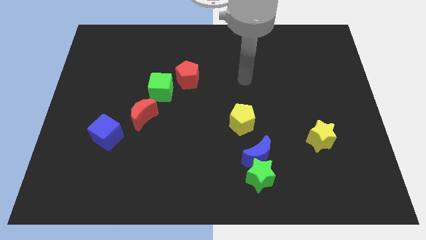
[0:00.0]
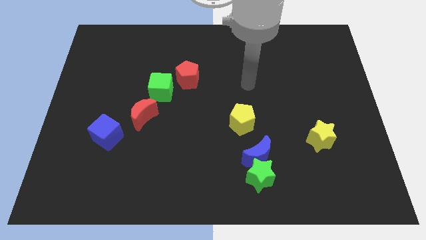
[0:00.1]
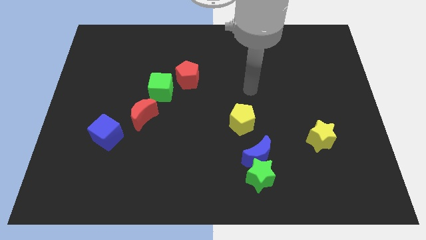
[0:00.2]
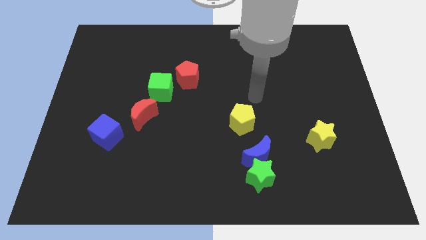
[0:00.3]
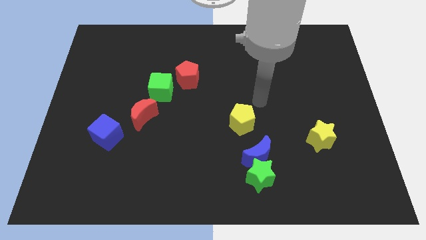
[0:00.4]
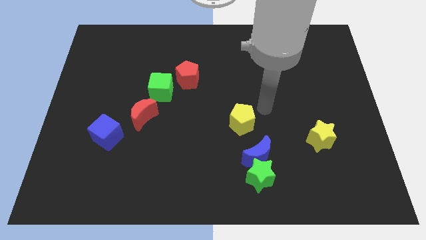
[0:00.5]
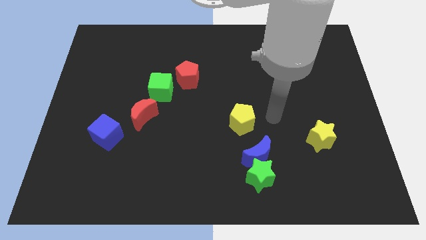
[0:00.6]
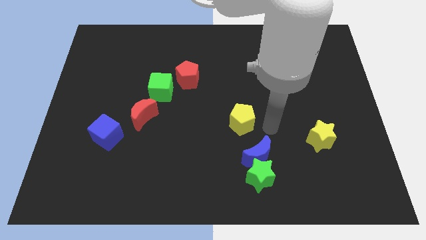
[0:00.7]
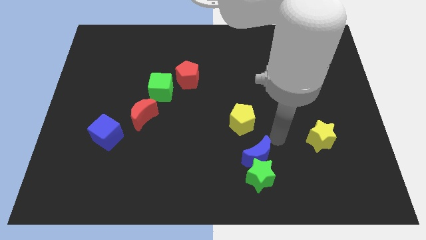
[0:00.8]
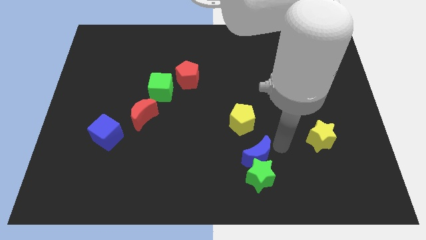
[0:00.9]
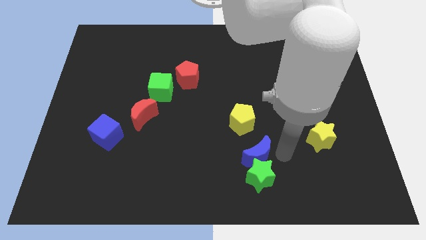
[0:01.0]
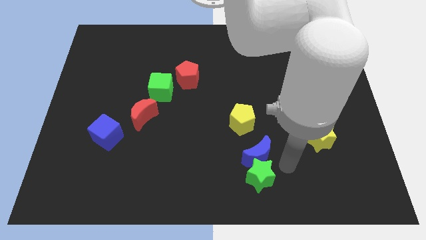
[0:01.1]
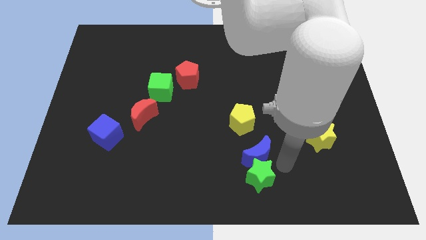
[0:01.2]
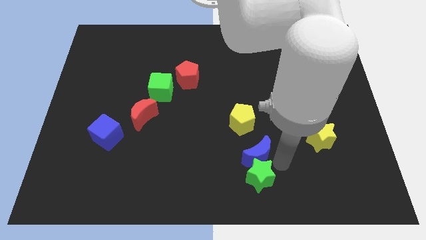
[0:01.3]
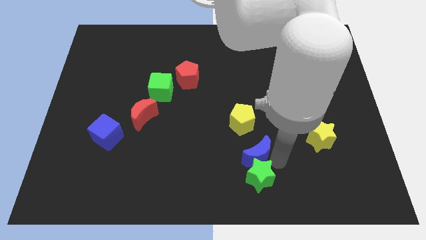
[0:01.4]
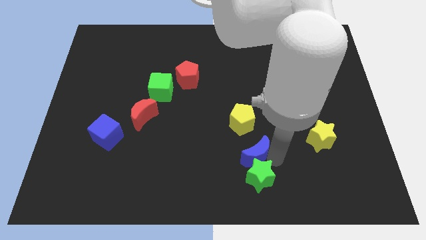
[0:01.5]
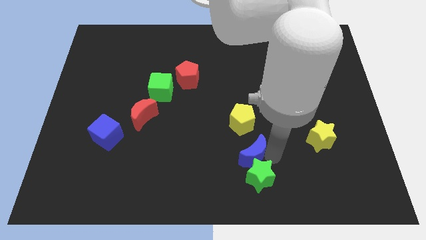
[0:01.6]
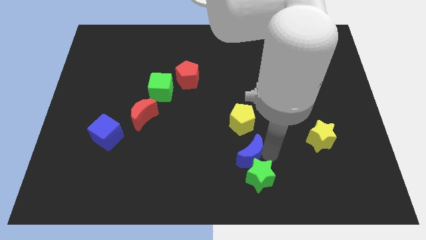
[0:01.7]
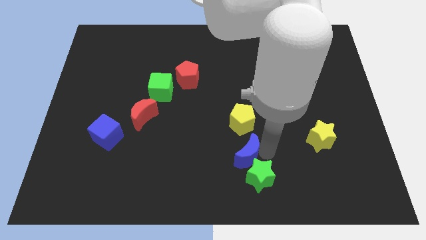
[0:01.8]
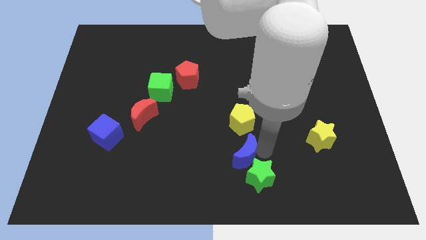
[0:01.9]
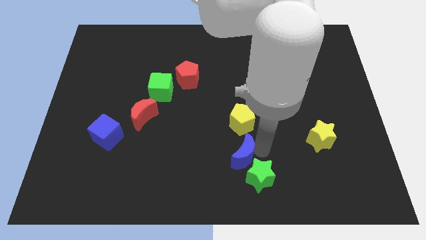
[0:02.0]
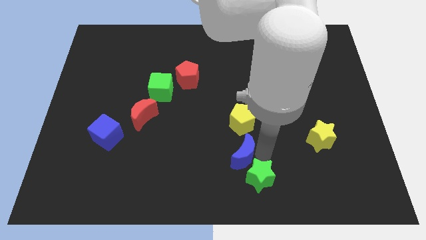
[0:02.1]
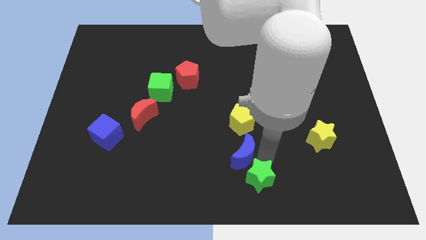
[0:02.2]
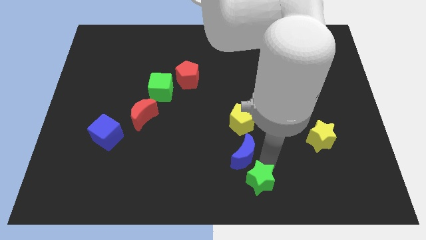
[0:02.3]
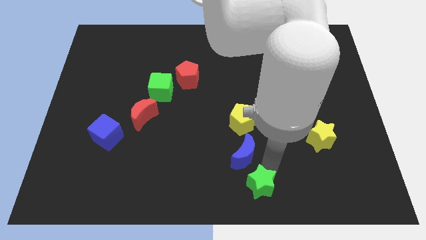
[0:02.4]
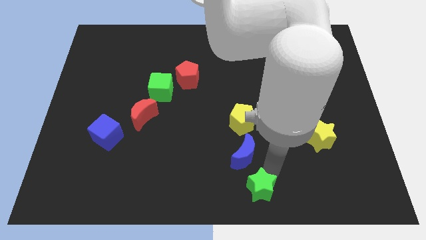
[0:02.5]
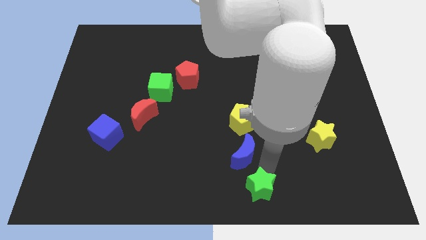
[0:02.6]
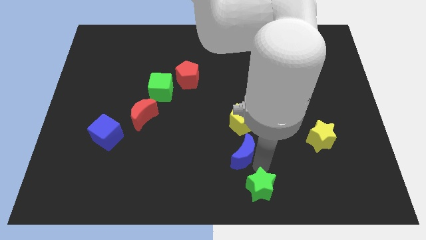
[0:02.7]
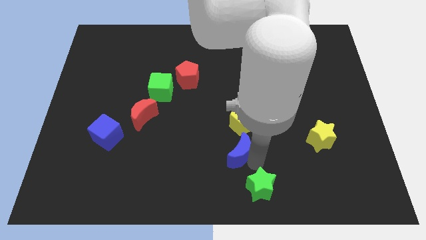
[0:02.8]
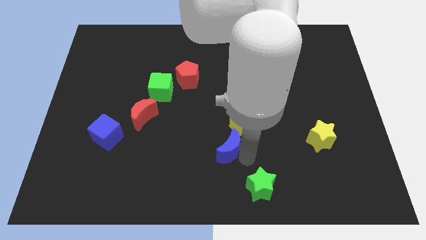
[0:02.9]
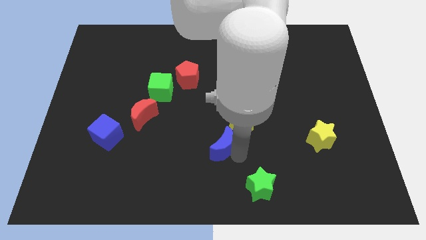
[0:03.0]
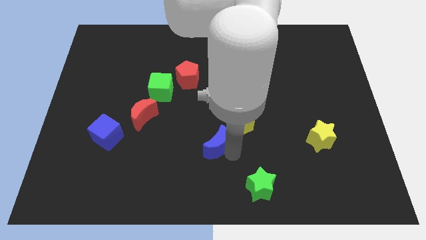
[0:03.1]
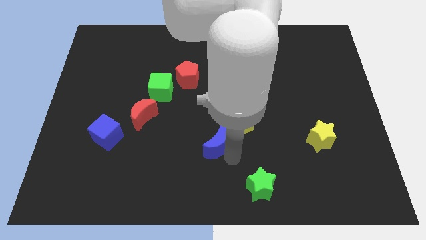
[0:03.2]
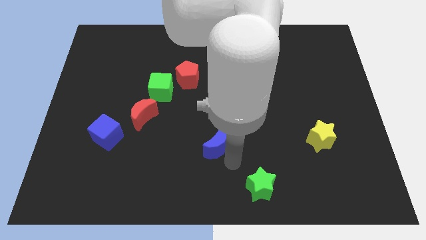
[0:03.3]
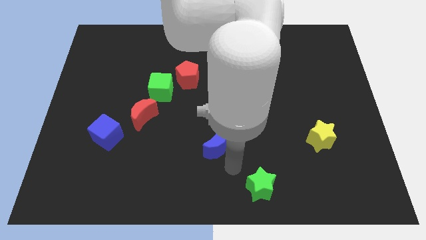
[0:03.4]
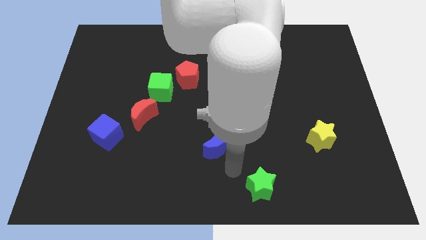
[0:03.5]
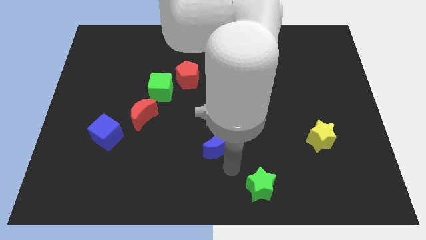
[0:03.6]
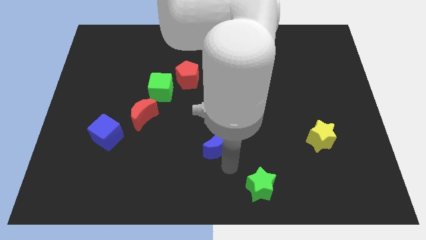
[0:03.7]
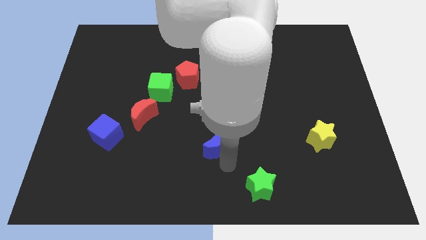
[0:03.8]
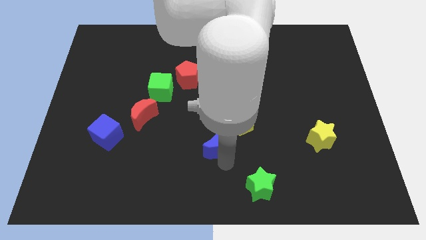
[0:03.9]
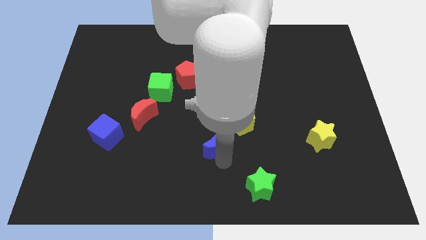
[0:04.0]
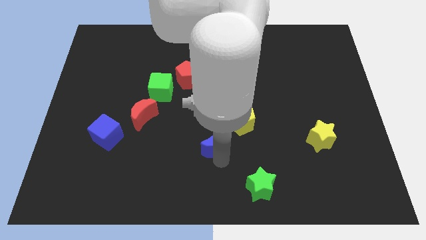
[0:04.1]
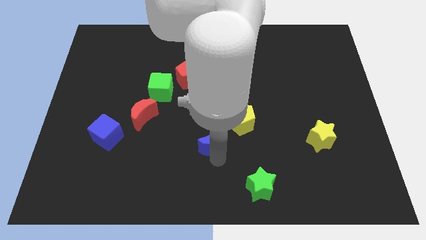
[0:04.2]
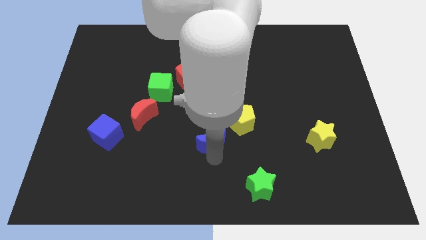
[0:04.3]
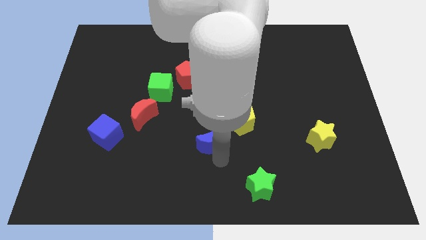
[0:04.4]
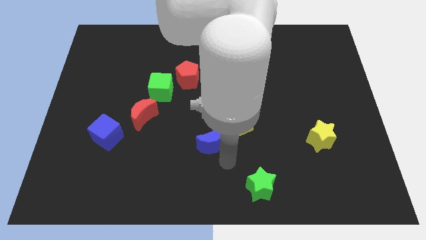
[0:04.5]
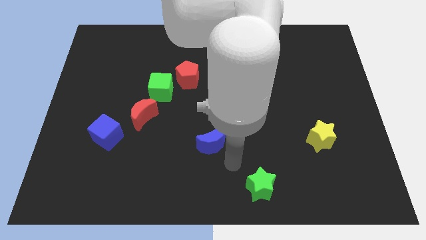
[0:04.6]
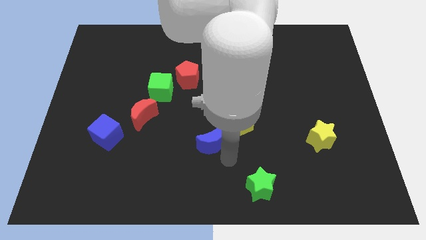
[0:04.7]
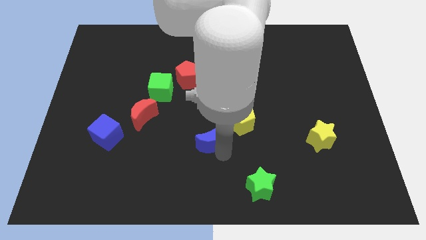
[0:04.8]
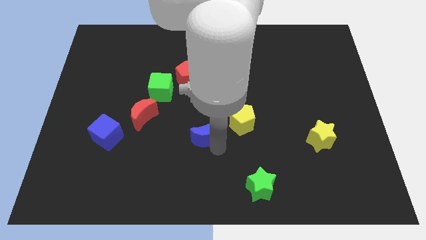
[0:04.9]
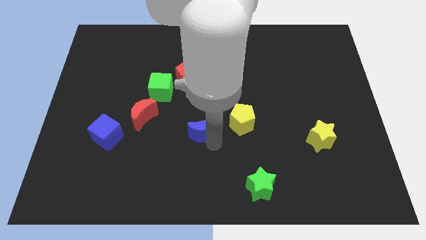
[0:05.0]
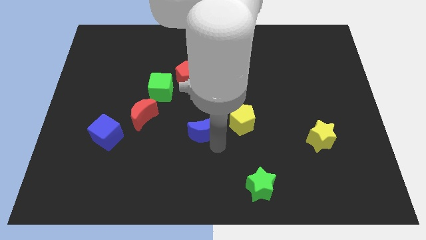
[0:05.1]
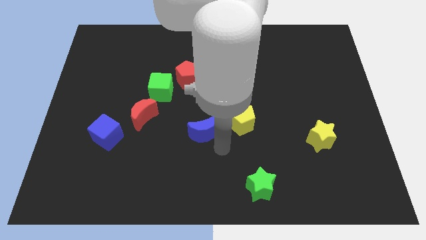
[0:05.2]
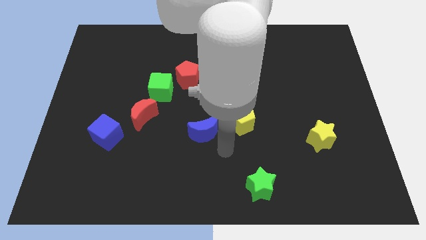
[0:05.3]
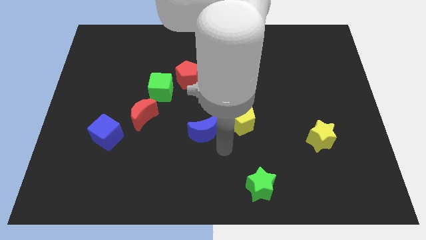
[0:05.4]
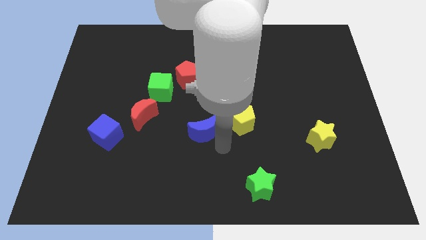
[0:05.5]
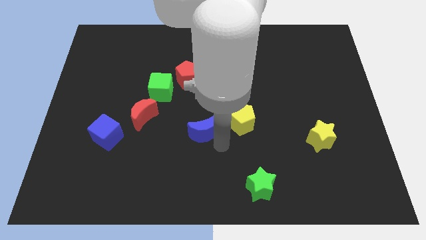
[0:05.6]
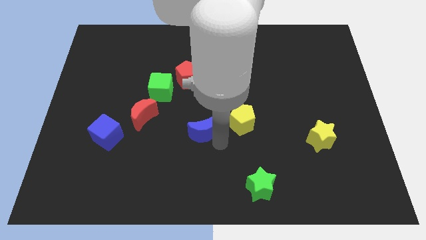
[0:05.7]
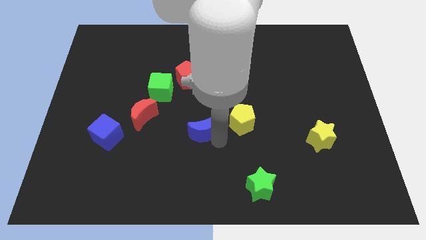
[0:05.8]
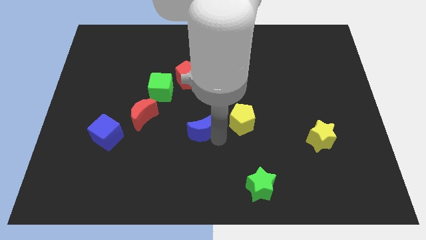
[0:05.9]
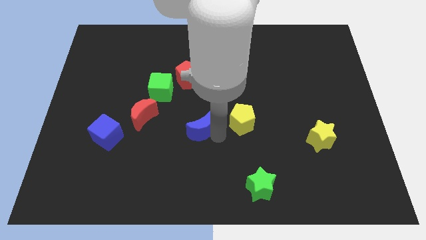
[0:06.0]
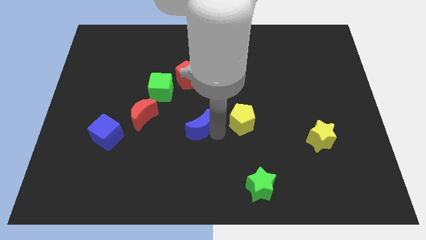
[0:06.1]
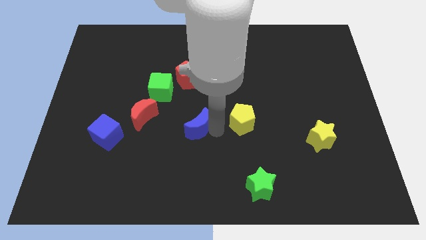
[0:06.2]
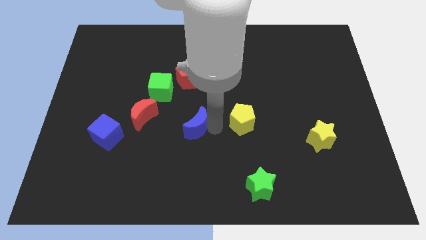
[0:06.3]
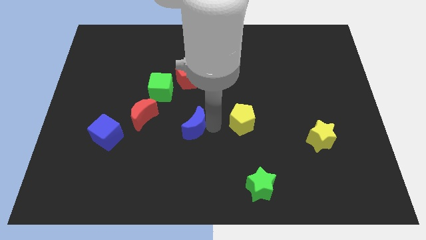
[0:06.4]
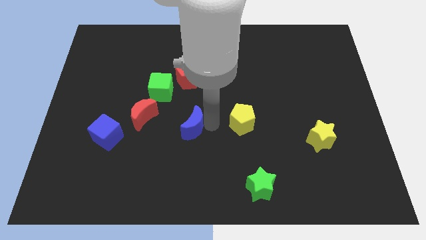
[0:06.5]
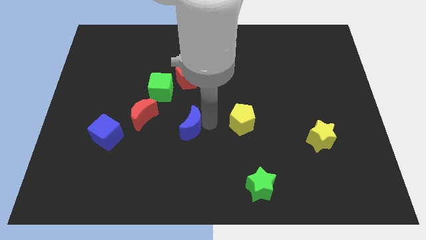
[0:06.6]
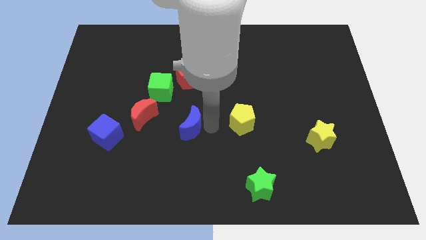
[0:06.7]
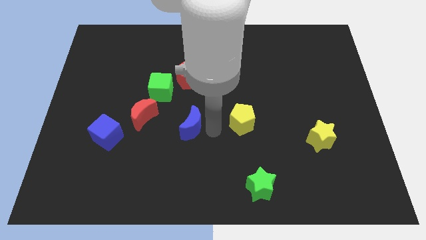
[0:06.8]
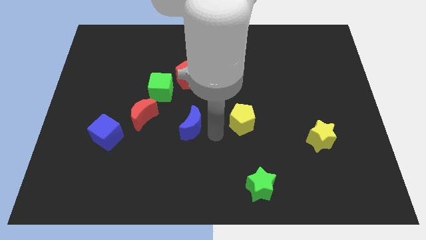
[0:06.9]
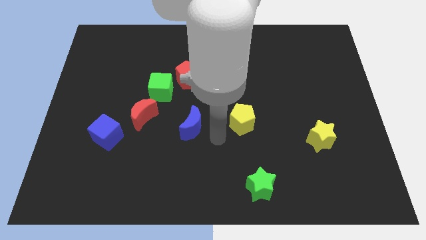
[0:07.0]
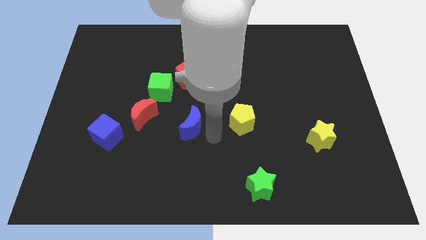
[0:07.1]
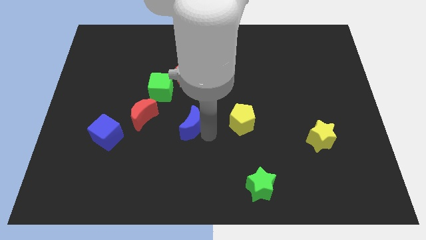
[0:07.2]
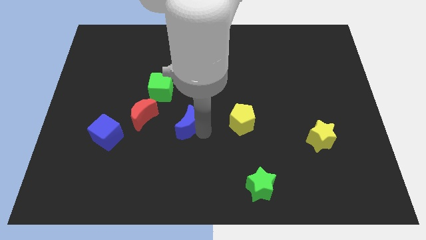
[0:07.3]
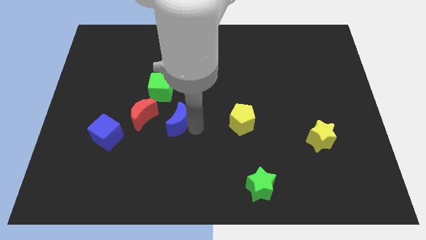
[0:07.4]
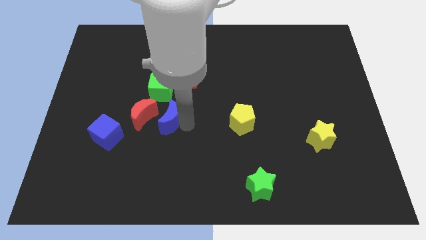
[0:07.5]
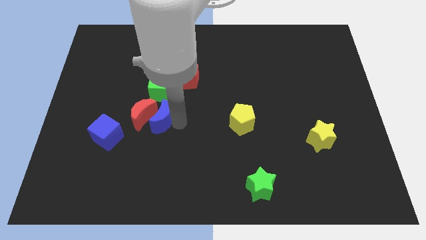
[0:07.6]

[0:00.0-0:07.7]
move the blue moon next to the red moon
